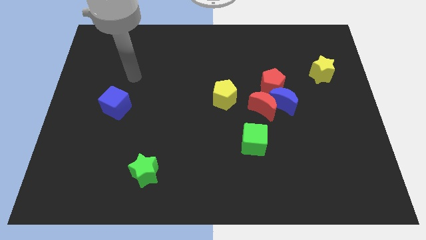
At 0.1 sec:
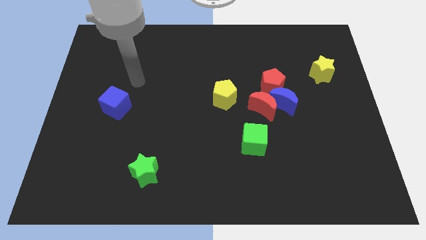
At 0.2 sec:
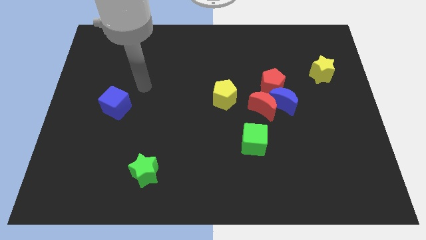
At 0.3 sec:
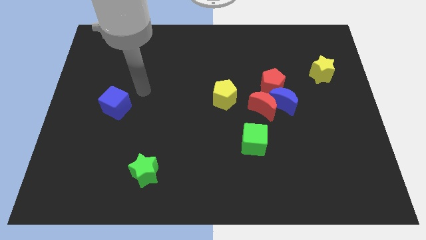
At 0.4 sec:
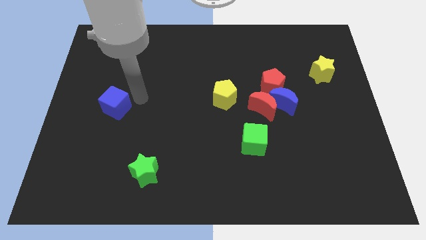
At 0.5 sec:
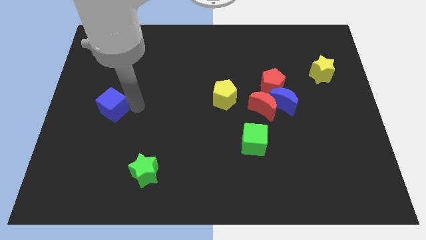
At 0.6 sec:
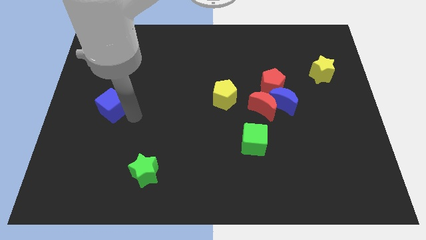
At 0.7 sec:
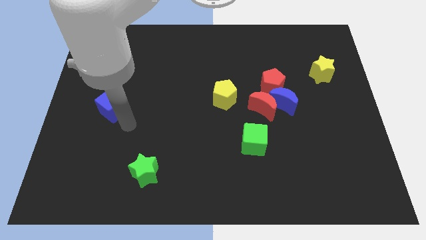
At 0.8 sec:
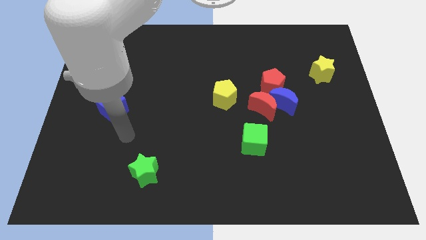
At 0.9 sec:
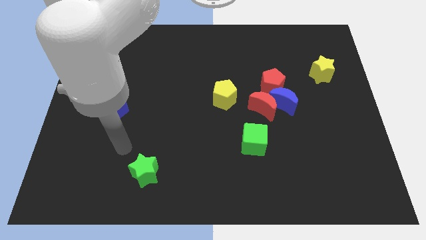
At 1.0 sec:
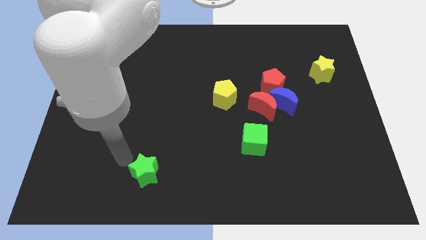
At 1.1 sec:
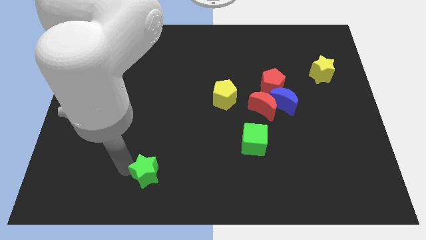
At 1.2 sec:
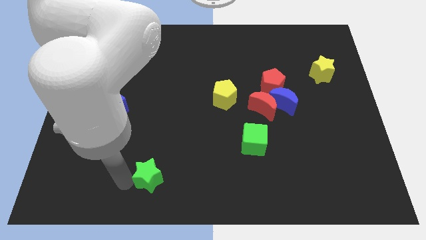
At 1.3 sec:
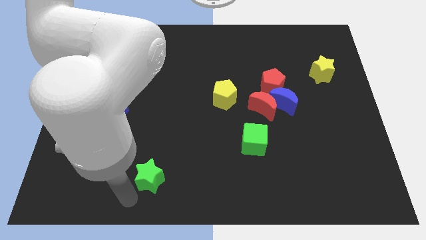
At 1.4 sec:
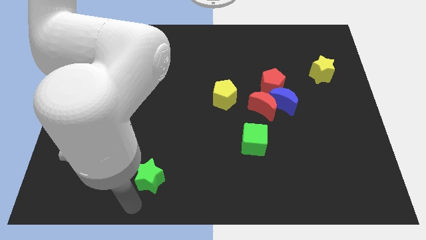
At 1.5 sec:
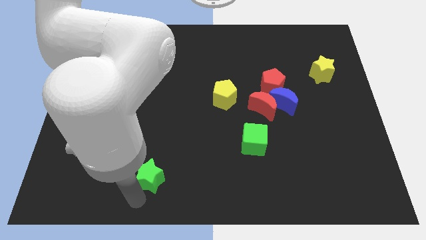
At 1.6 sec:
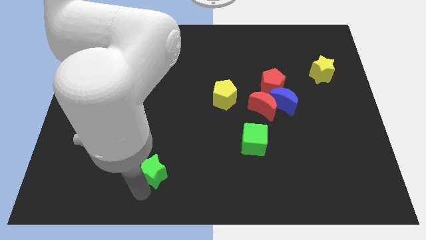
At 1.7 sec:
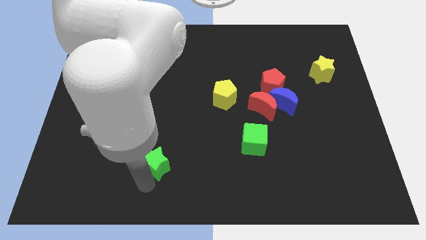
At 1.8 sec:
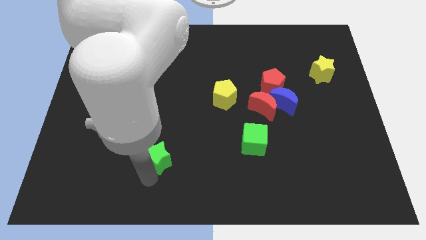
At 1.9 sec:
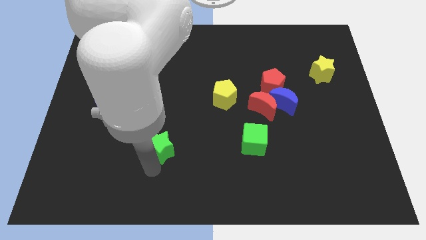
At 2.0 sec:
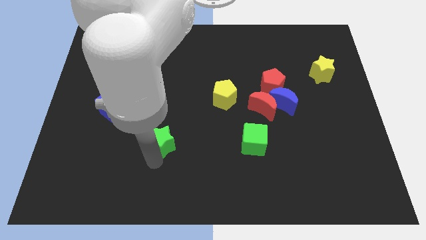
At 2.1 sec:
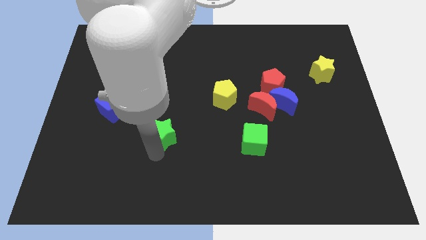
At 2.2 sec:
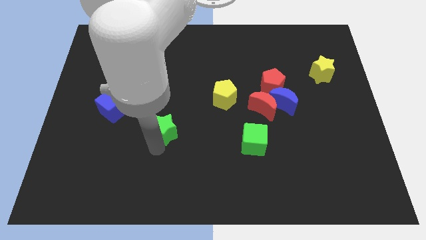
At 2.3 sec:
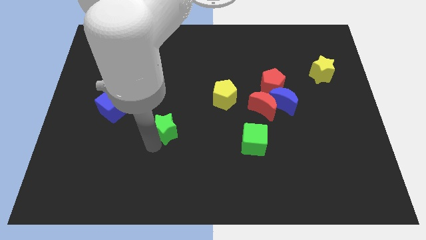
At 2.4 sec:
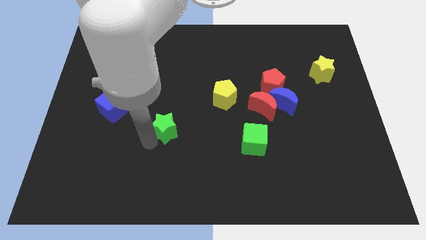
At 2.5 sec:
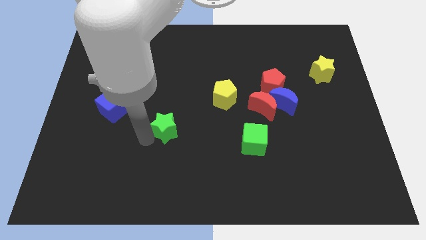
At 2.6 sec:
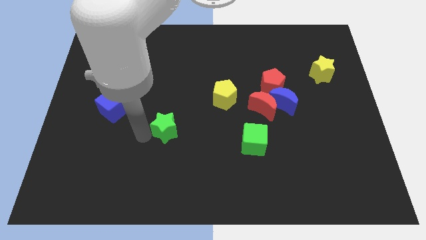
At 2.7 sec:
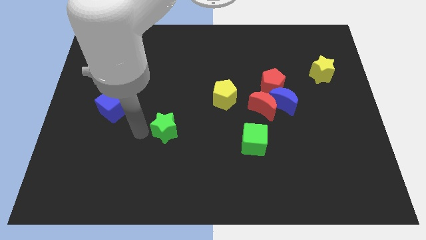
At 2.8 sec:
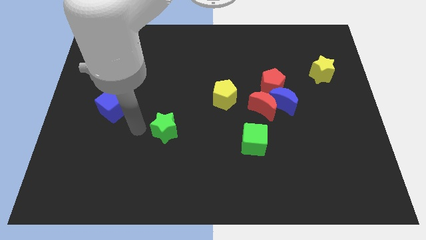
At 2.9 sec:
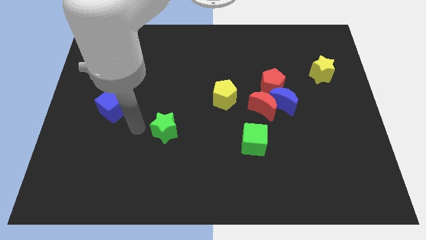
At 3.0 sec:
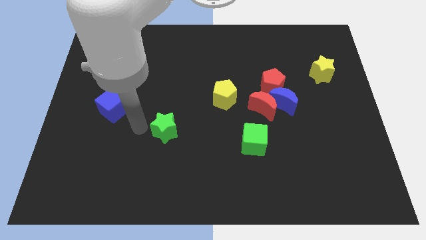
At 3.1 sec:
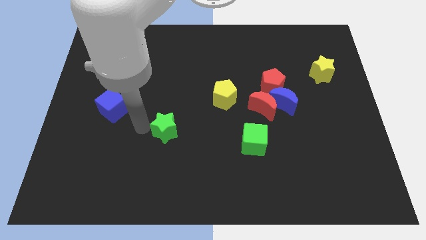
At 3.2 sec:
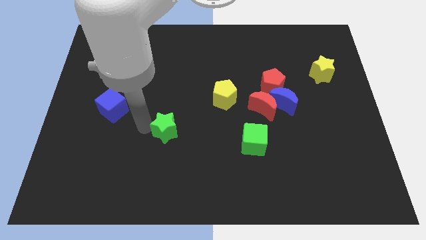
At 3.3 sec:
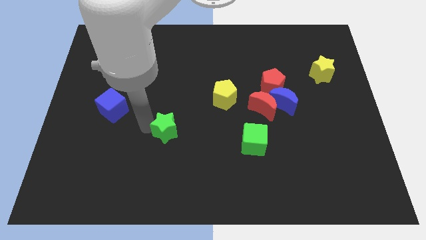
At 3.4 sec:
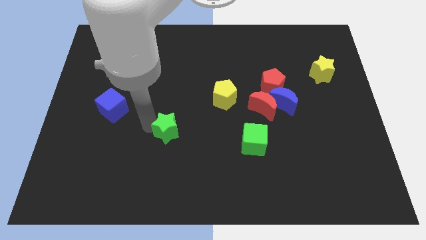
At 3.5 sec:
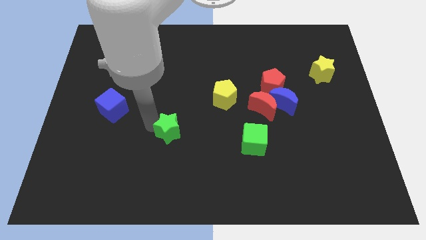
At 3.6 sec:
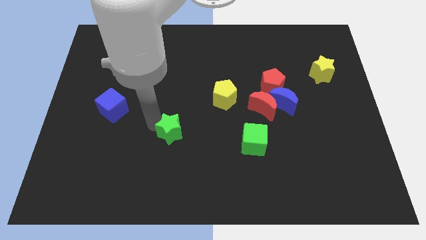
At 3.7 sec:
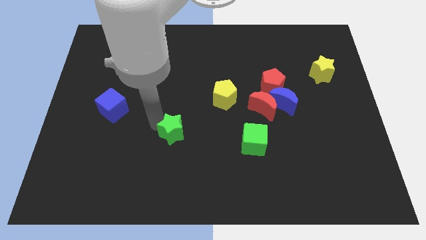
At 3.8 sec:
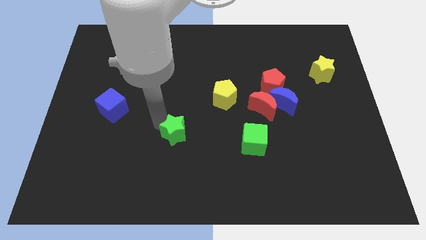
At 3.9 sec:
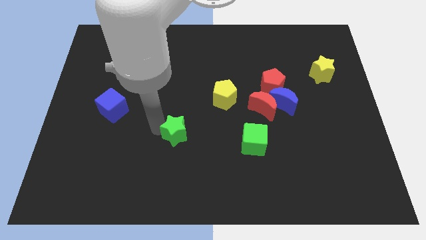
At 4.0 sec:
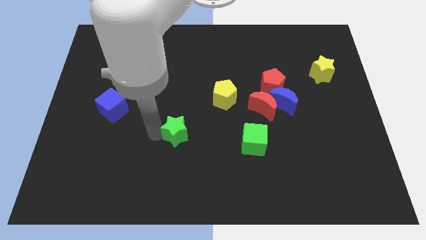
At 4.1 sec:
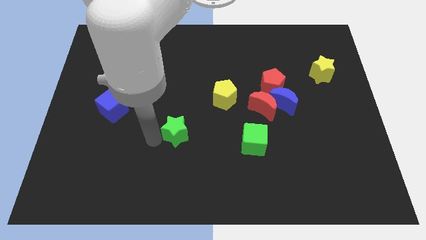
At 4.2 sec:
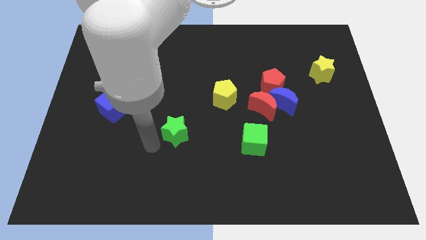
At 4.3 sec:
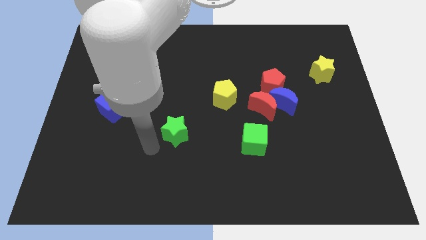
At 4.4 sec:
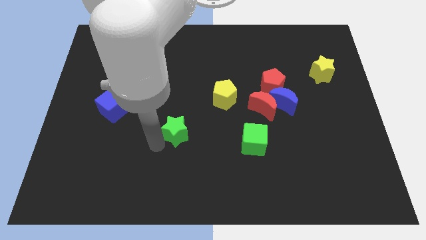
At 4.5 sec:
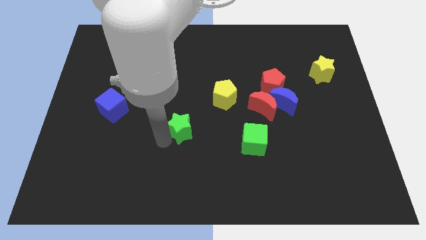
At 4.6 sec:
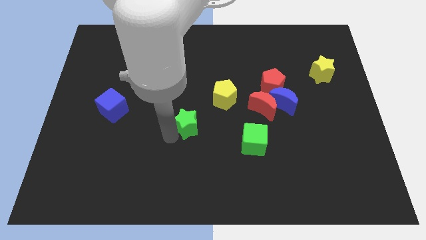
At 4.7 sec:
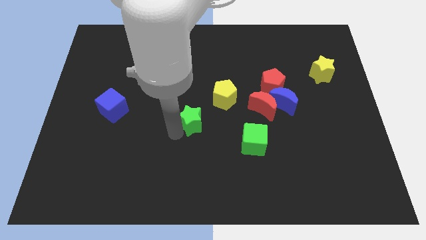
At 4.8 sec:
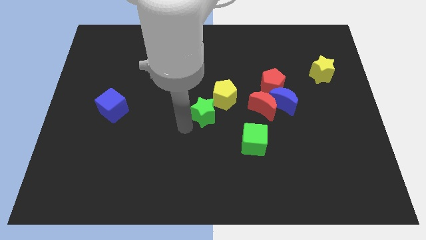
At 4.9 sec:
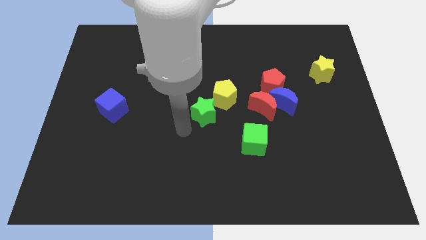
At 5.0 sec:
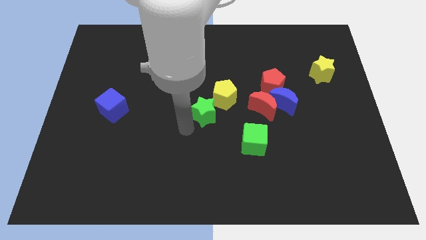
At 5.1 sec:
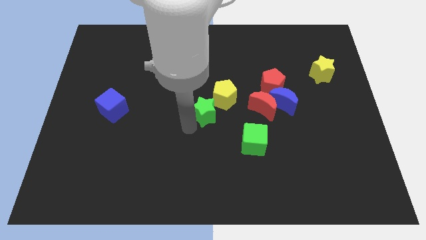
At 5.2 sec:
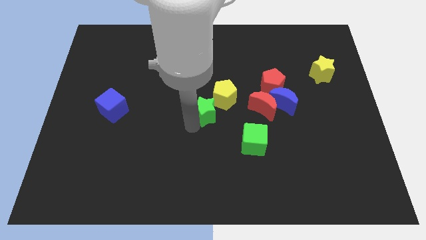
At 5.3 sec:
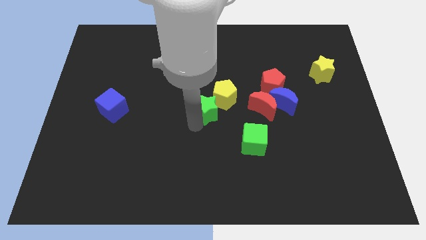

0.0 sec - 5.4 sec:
move the green star next to the yellow pentagon

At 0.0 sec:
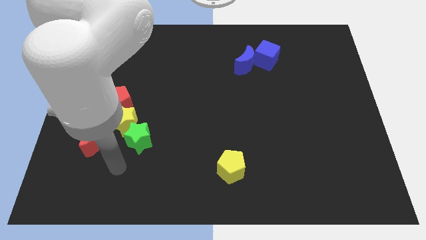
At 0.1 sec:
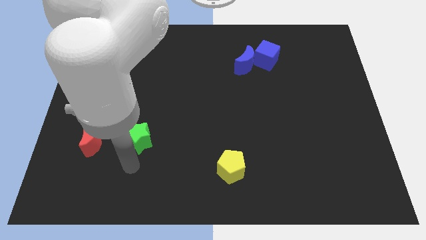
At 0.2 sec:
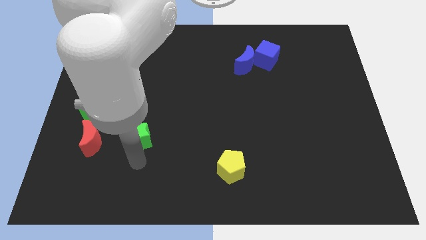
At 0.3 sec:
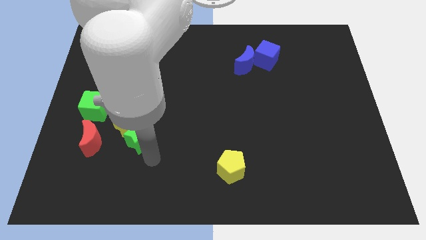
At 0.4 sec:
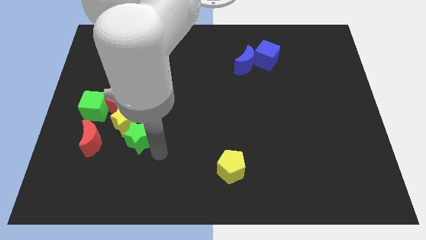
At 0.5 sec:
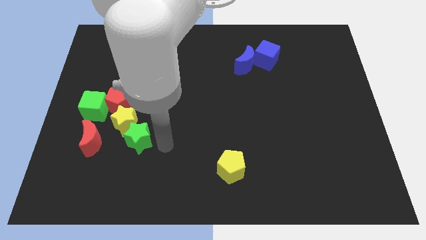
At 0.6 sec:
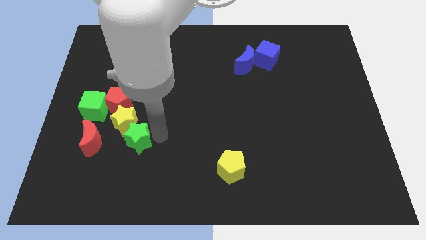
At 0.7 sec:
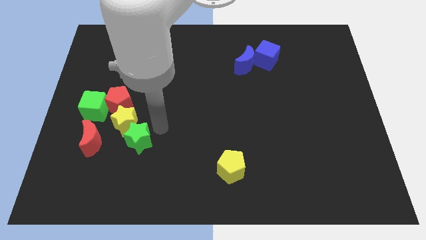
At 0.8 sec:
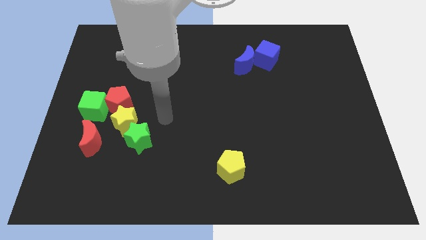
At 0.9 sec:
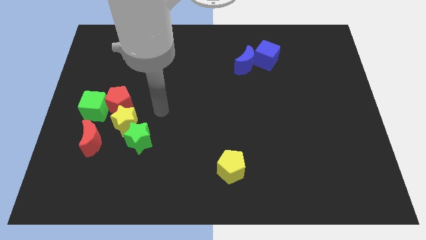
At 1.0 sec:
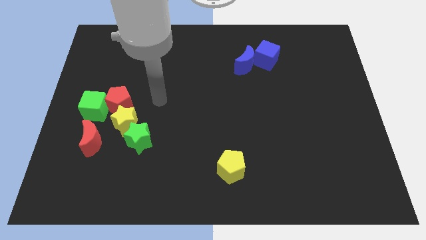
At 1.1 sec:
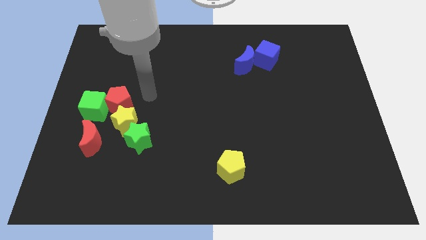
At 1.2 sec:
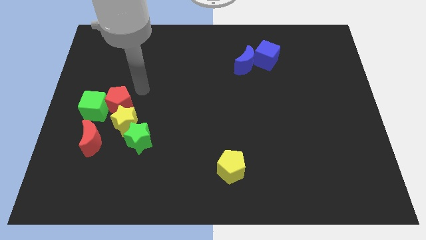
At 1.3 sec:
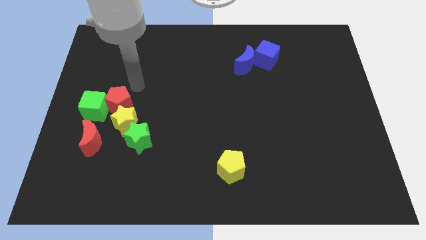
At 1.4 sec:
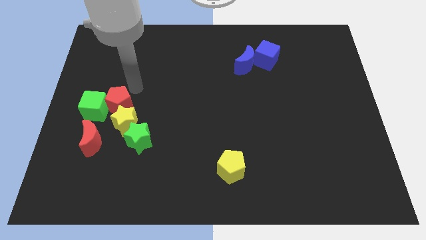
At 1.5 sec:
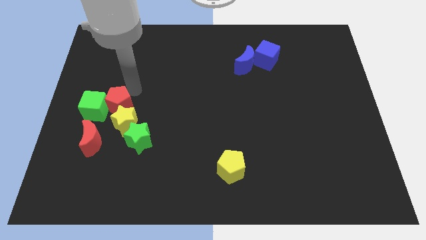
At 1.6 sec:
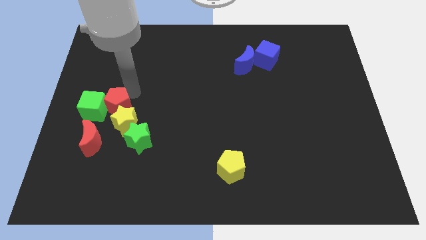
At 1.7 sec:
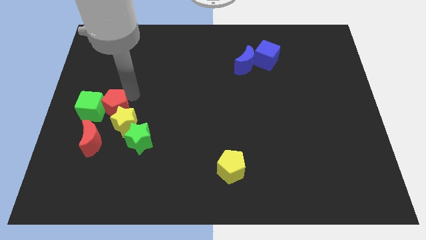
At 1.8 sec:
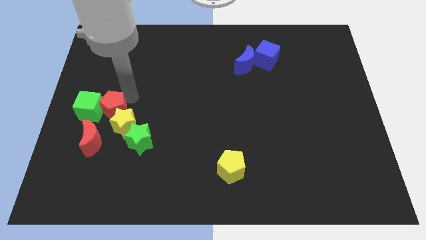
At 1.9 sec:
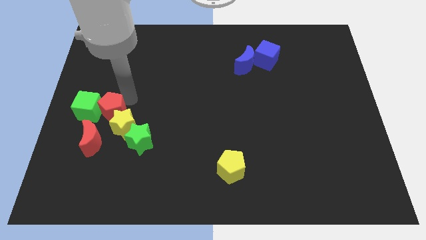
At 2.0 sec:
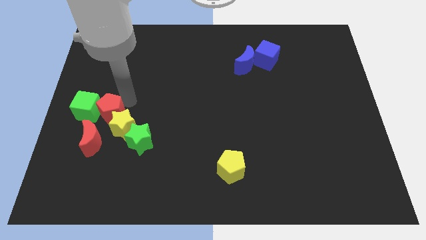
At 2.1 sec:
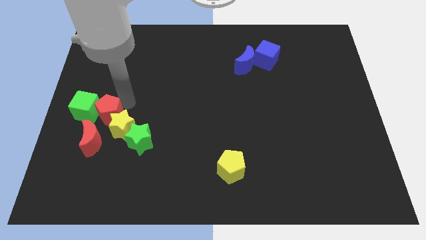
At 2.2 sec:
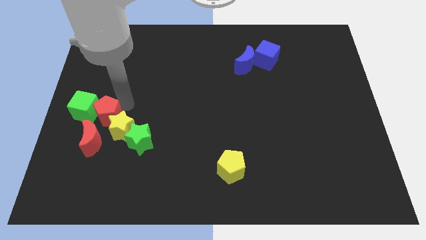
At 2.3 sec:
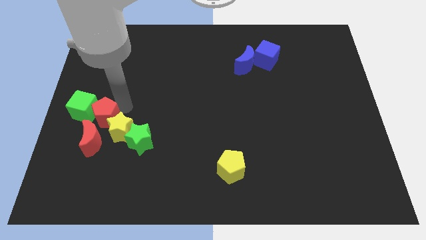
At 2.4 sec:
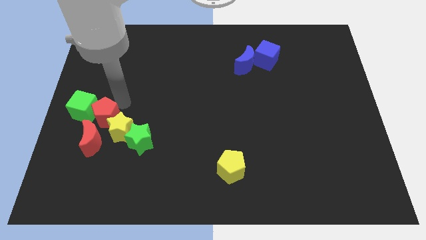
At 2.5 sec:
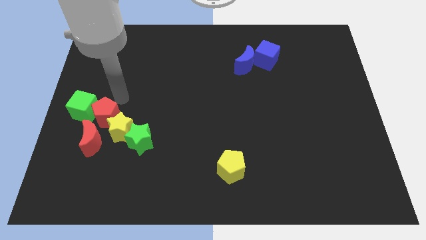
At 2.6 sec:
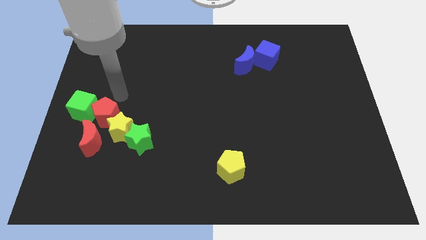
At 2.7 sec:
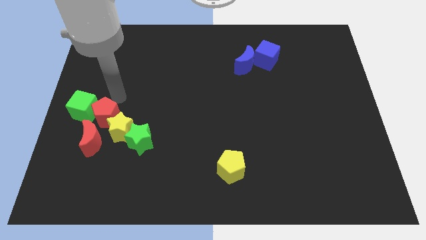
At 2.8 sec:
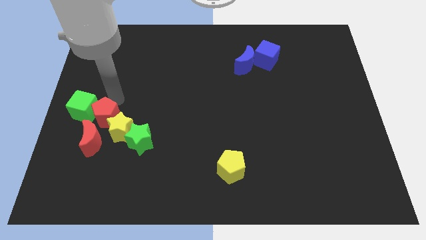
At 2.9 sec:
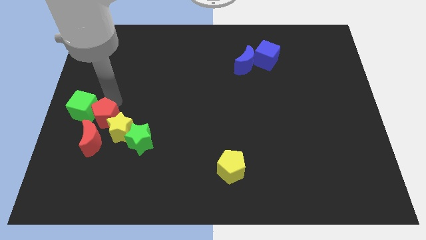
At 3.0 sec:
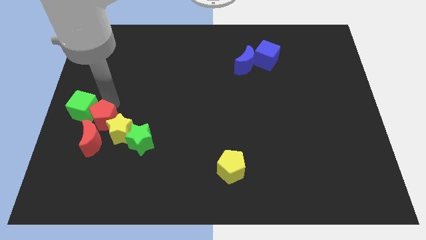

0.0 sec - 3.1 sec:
put the red pentagon close to the red moon
